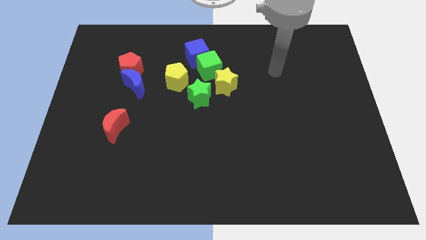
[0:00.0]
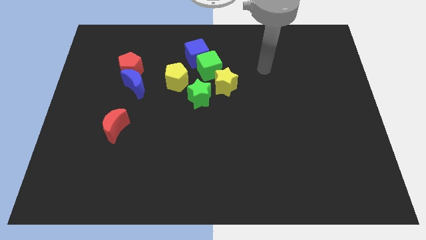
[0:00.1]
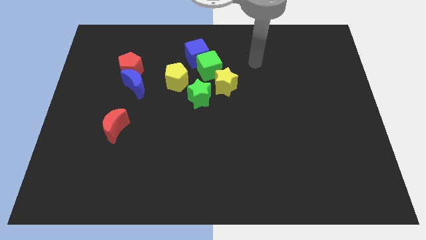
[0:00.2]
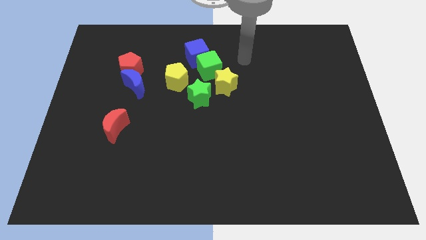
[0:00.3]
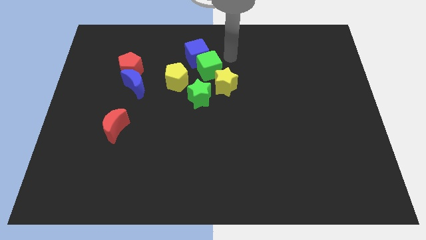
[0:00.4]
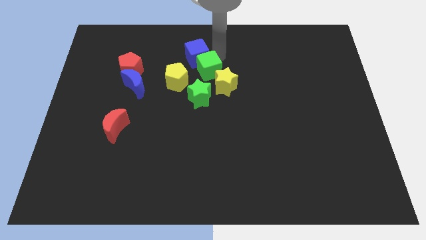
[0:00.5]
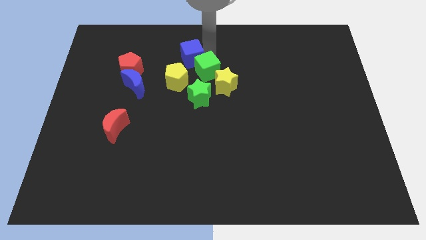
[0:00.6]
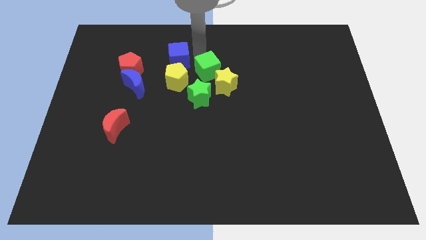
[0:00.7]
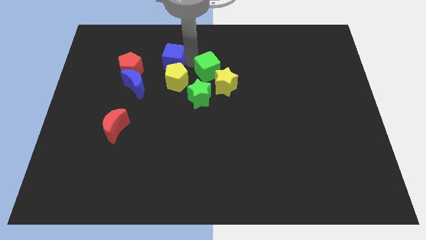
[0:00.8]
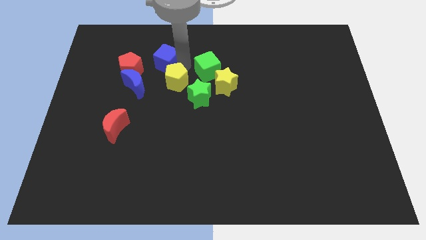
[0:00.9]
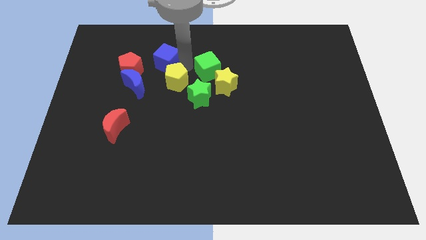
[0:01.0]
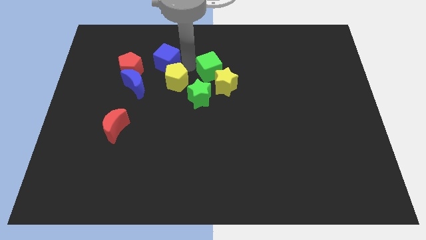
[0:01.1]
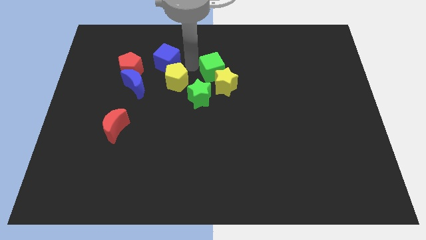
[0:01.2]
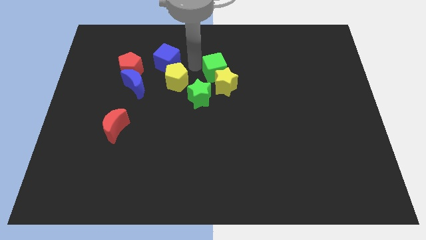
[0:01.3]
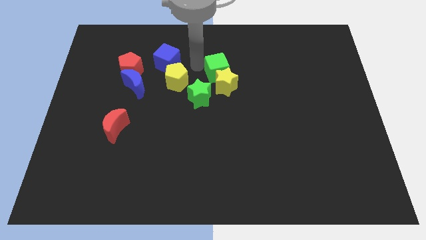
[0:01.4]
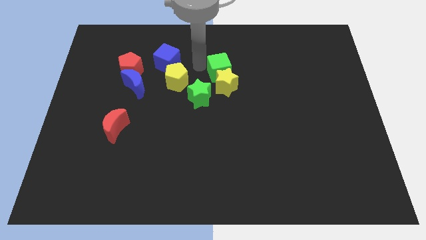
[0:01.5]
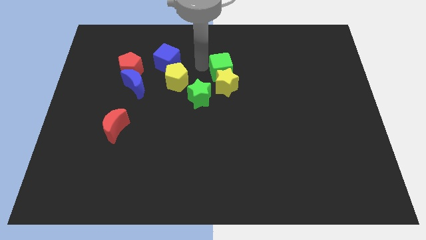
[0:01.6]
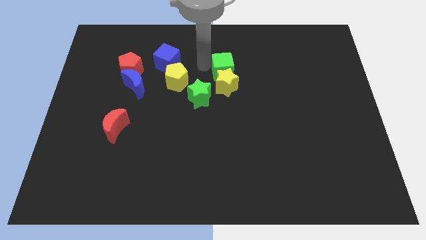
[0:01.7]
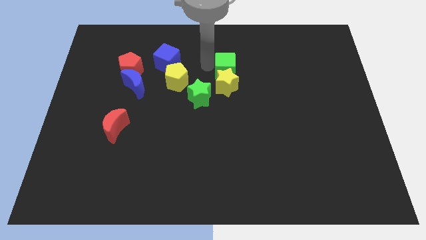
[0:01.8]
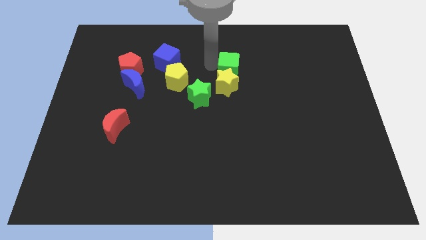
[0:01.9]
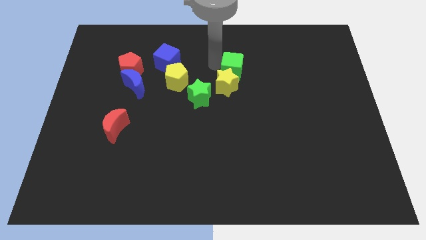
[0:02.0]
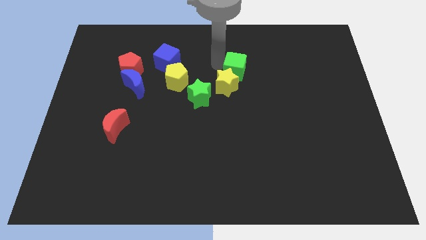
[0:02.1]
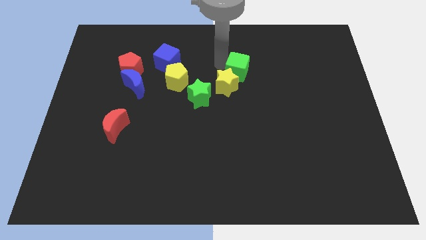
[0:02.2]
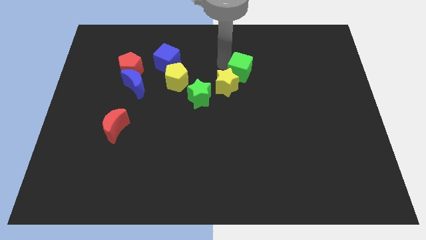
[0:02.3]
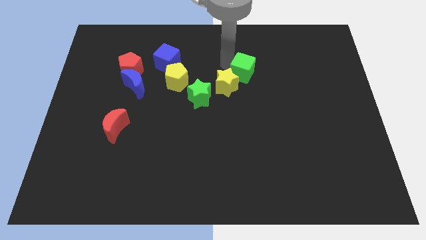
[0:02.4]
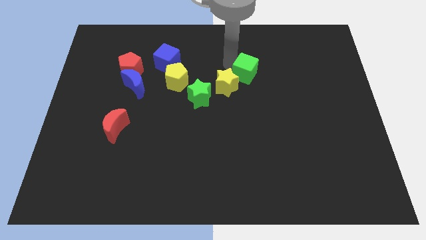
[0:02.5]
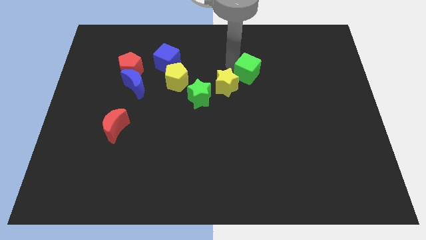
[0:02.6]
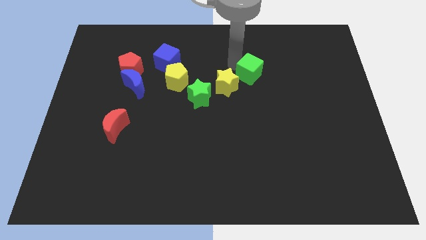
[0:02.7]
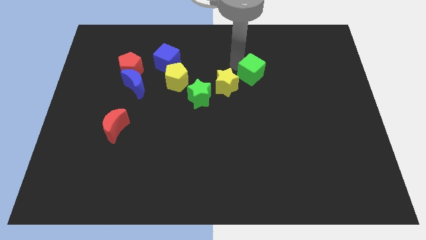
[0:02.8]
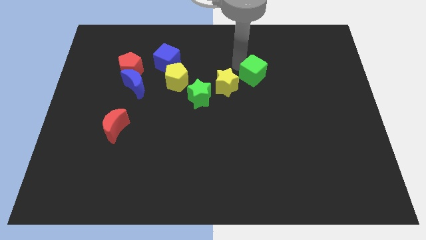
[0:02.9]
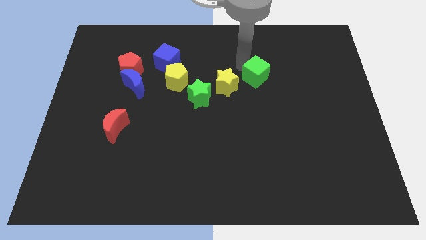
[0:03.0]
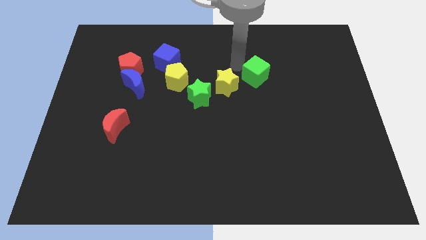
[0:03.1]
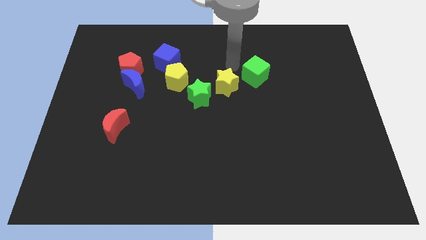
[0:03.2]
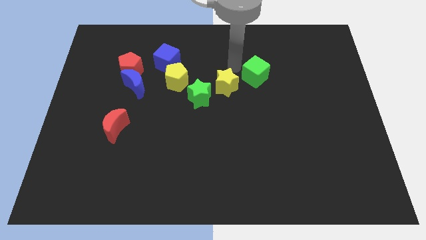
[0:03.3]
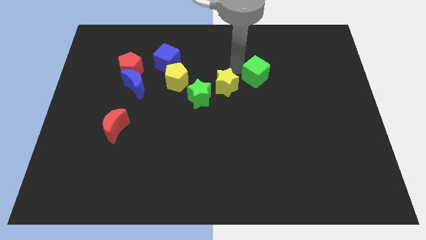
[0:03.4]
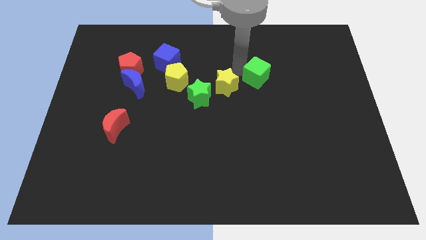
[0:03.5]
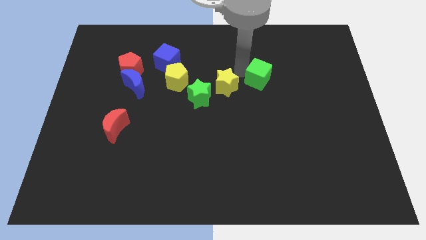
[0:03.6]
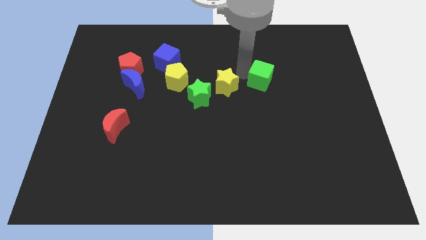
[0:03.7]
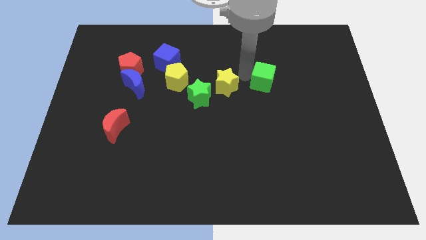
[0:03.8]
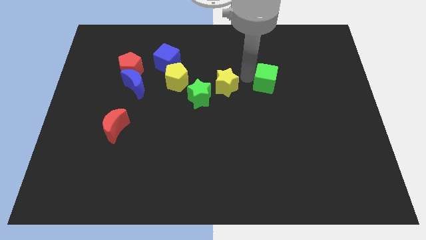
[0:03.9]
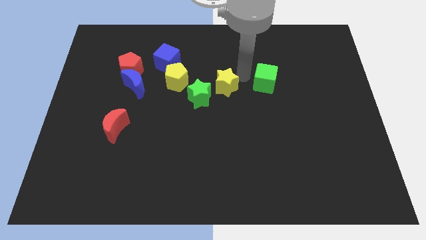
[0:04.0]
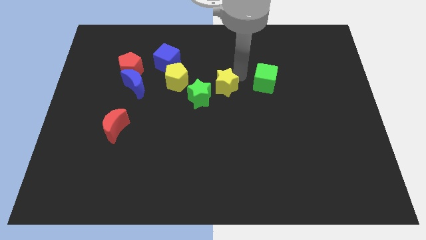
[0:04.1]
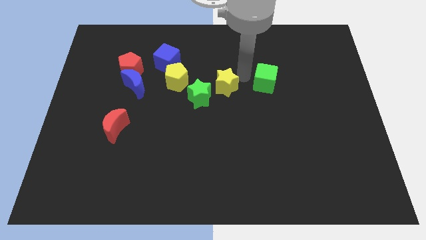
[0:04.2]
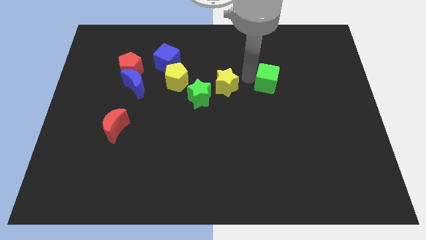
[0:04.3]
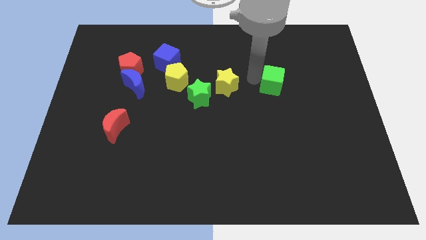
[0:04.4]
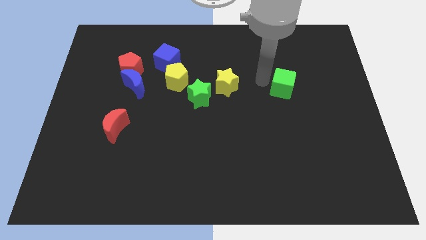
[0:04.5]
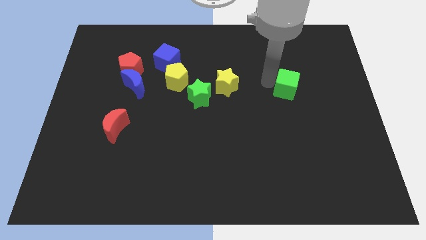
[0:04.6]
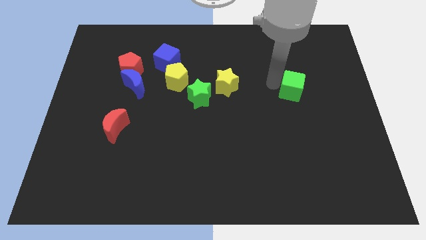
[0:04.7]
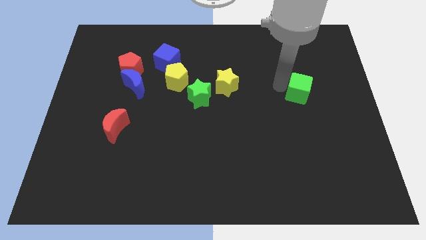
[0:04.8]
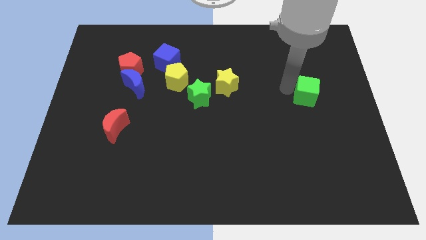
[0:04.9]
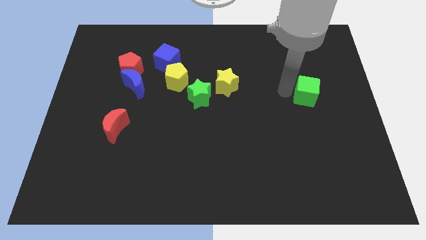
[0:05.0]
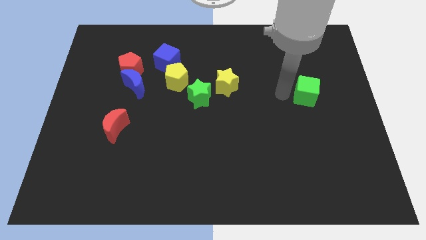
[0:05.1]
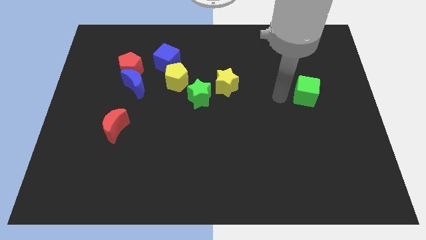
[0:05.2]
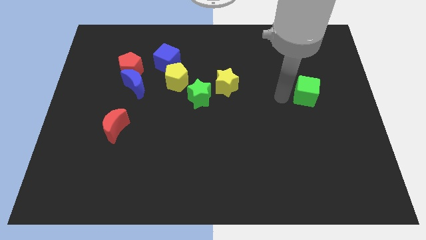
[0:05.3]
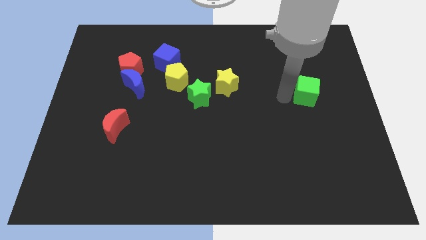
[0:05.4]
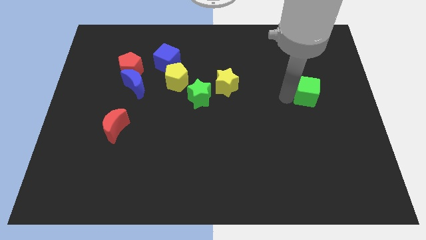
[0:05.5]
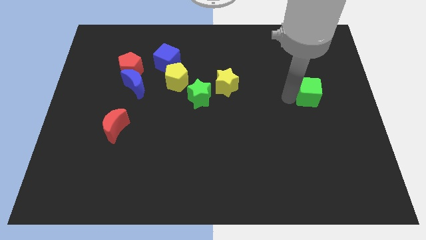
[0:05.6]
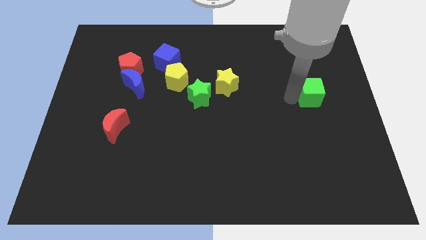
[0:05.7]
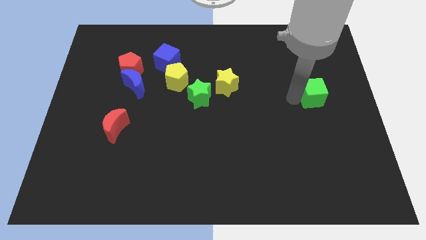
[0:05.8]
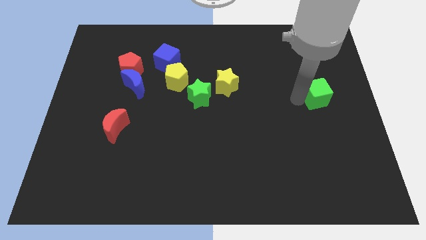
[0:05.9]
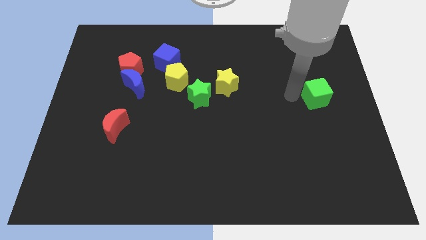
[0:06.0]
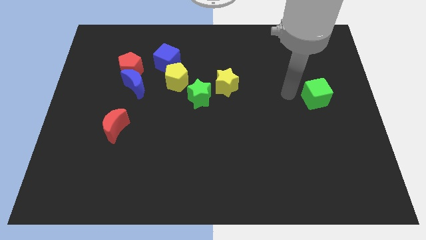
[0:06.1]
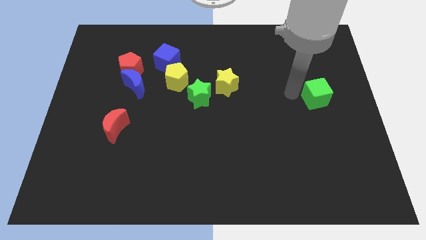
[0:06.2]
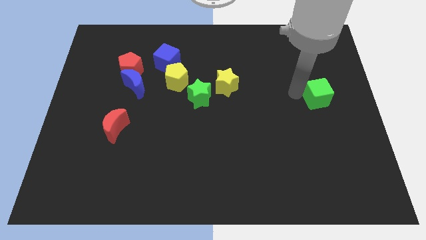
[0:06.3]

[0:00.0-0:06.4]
move the green cube to the center right
